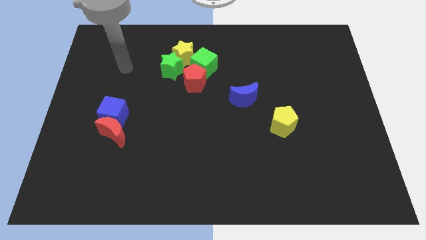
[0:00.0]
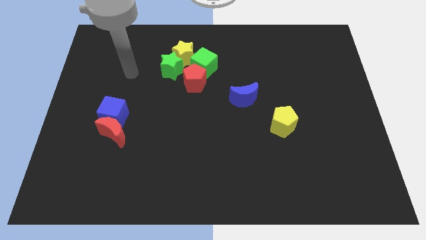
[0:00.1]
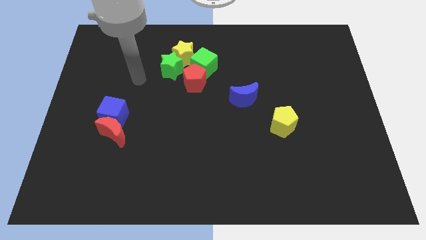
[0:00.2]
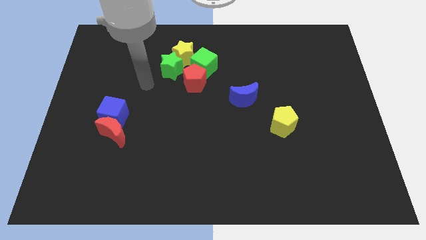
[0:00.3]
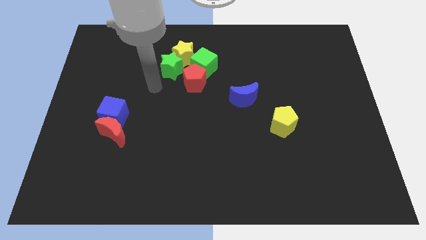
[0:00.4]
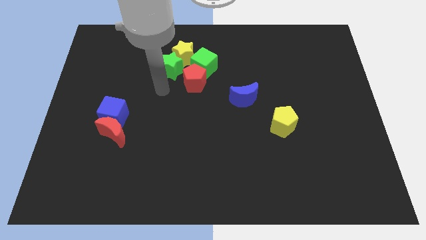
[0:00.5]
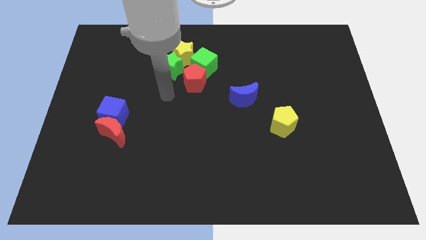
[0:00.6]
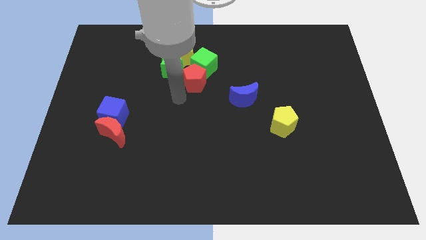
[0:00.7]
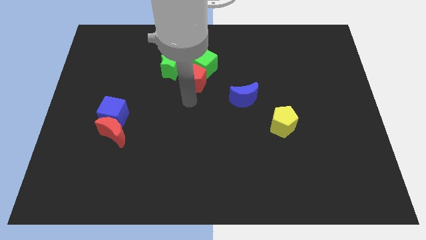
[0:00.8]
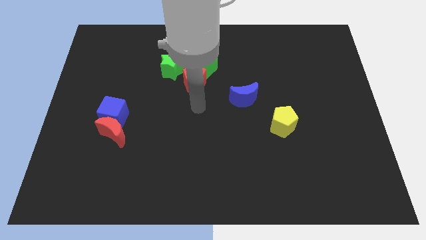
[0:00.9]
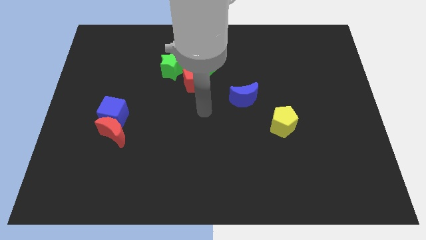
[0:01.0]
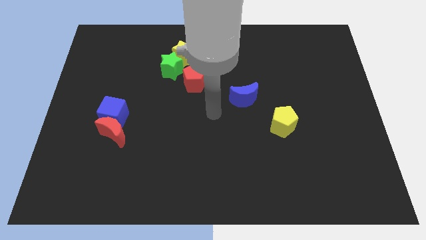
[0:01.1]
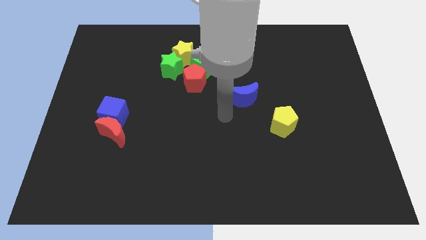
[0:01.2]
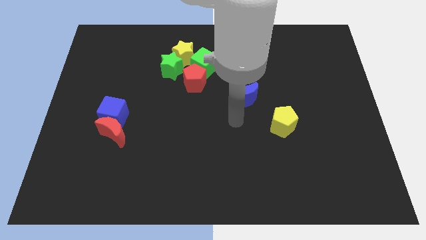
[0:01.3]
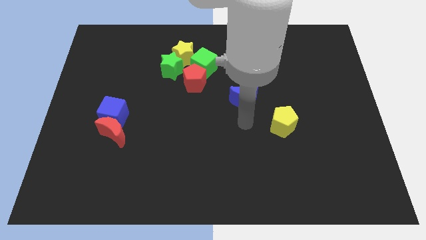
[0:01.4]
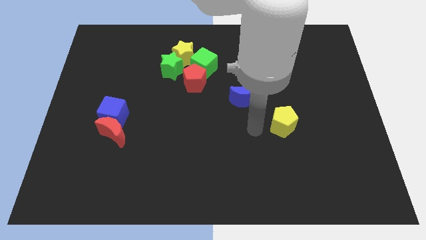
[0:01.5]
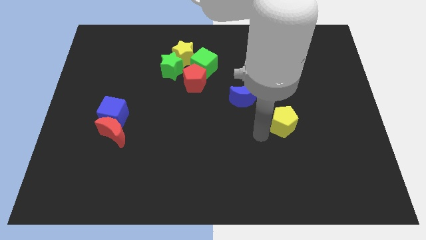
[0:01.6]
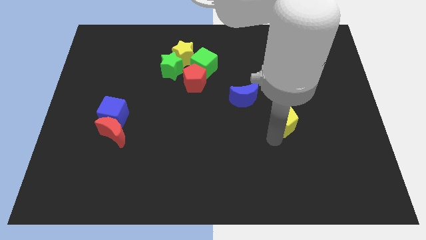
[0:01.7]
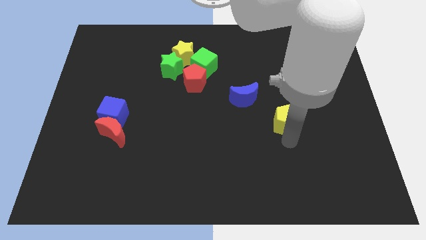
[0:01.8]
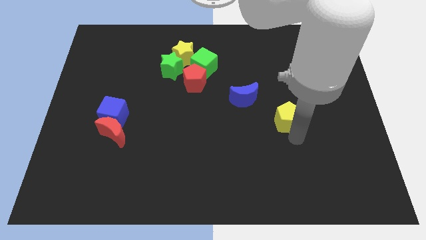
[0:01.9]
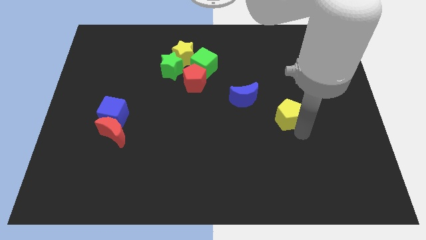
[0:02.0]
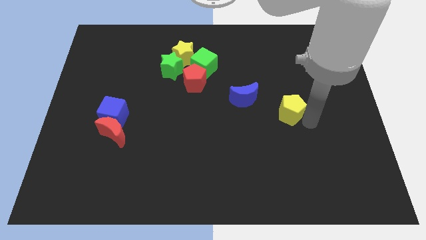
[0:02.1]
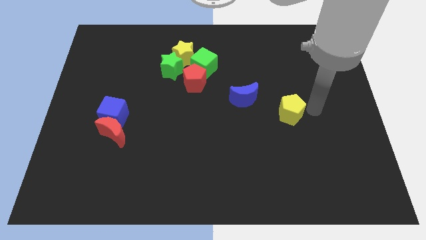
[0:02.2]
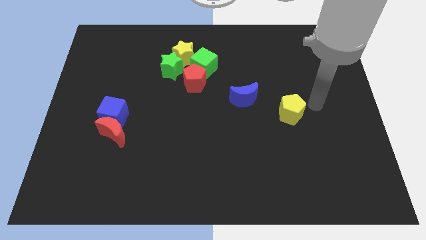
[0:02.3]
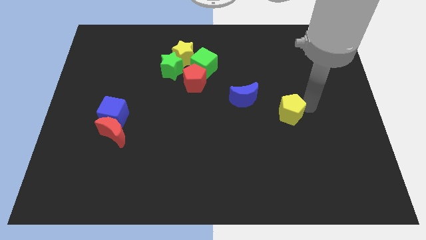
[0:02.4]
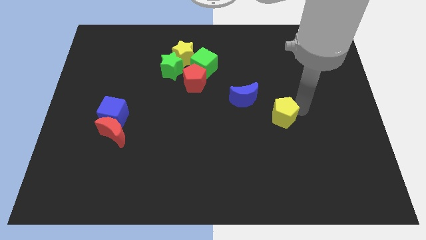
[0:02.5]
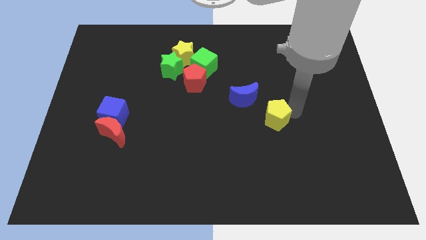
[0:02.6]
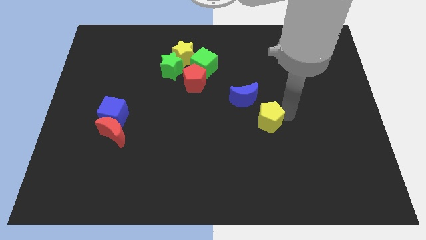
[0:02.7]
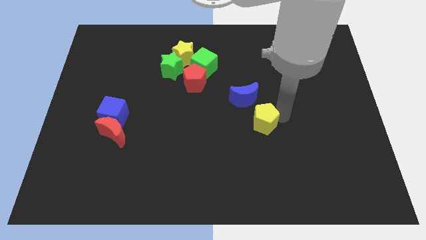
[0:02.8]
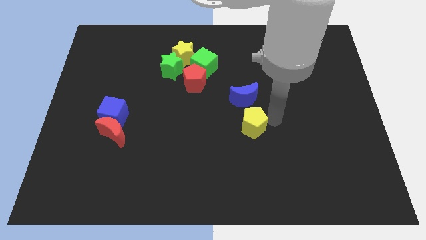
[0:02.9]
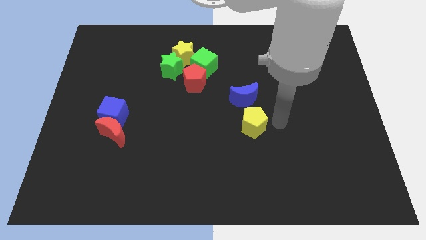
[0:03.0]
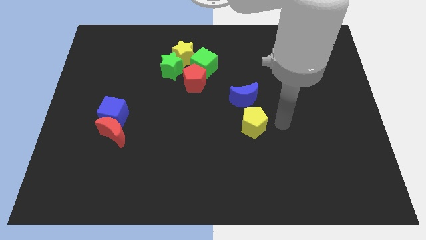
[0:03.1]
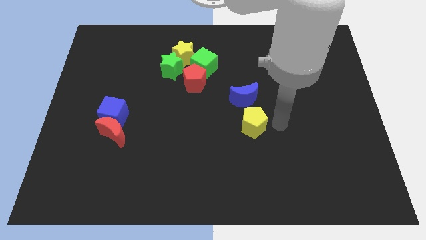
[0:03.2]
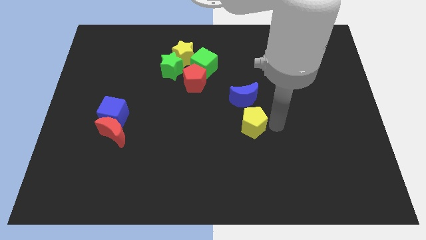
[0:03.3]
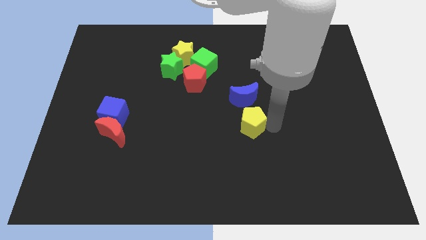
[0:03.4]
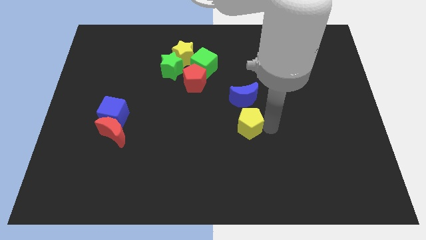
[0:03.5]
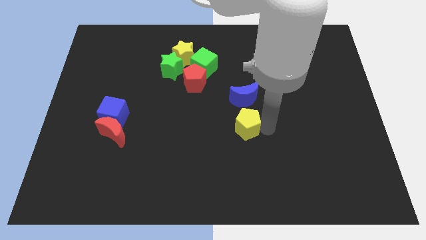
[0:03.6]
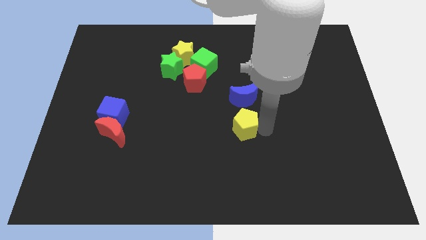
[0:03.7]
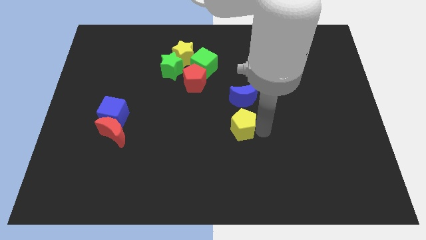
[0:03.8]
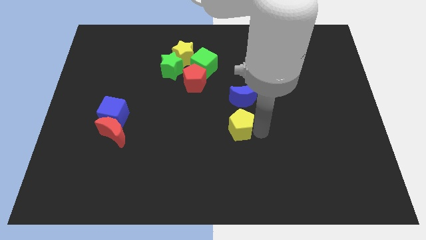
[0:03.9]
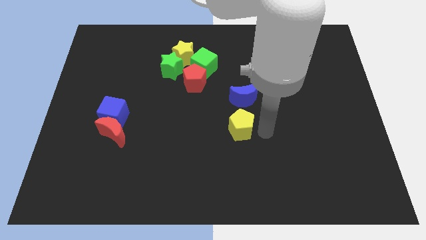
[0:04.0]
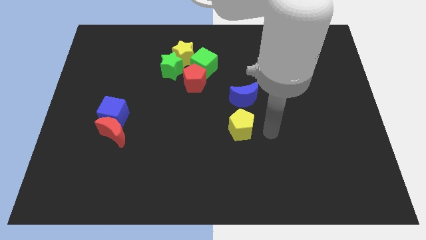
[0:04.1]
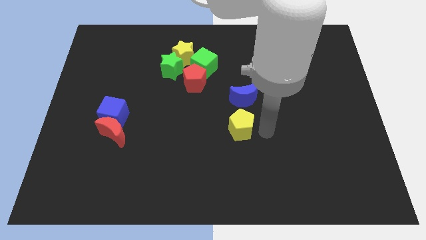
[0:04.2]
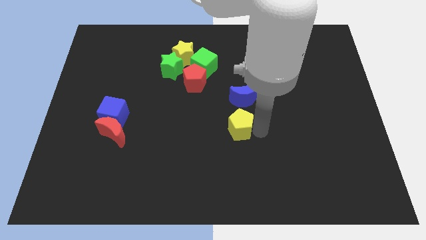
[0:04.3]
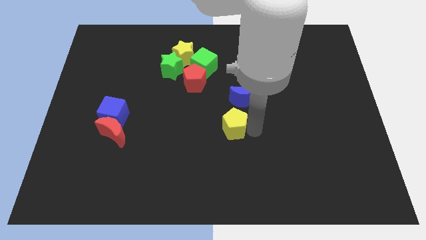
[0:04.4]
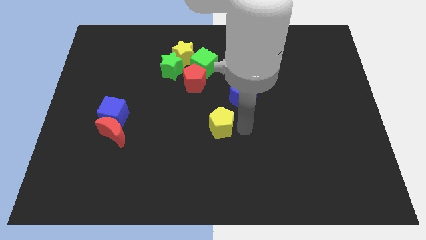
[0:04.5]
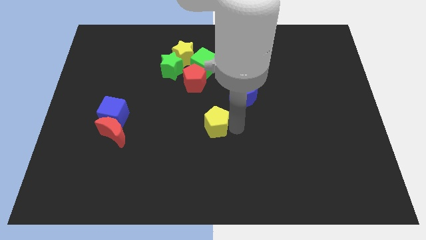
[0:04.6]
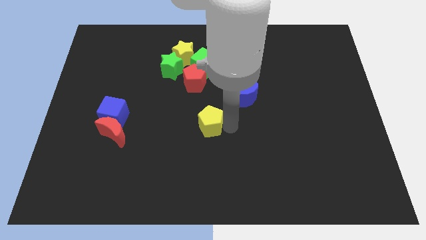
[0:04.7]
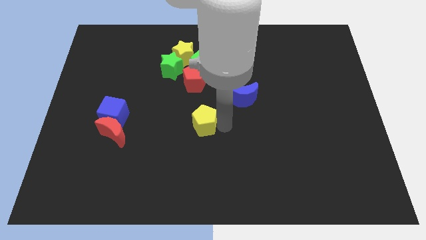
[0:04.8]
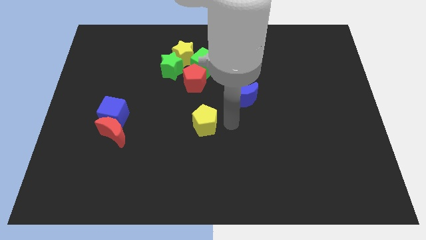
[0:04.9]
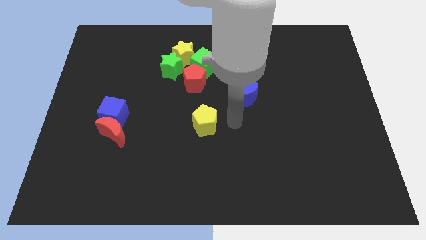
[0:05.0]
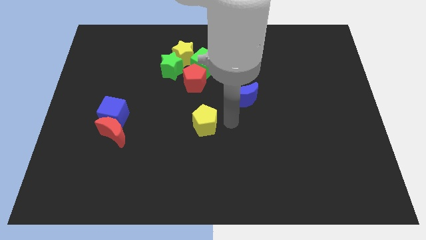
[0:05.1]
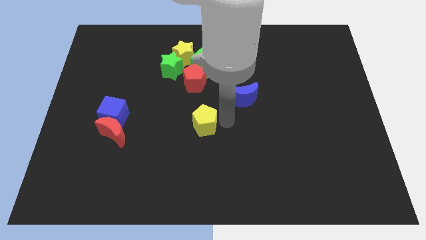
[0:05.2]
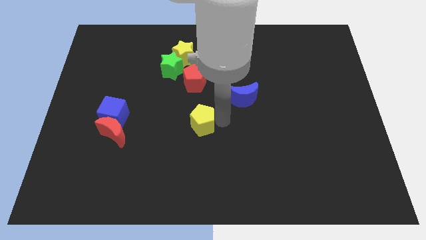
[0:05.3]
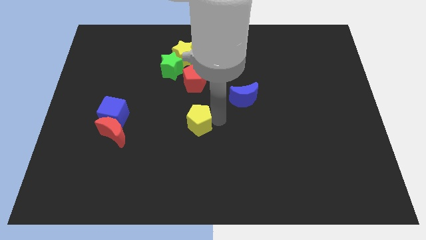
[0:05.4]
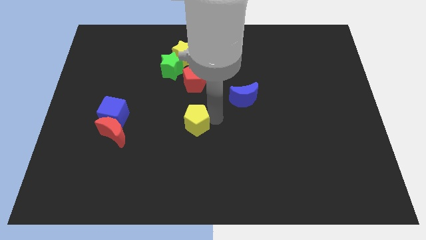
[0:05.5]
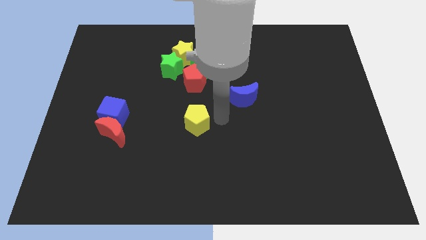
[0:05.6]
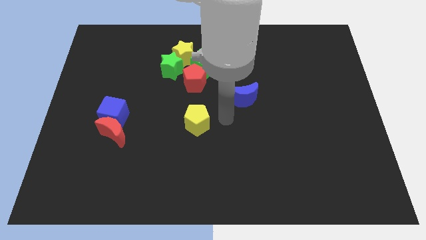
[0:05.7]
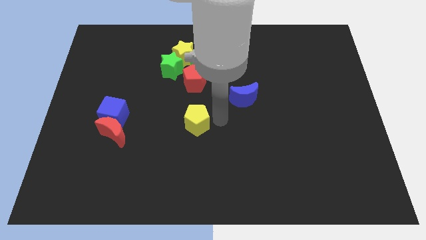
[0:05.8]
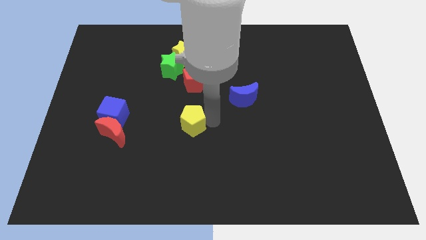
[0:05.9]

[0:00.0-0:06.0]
move the yellow pentagon to the left

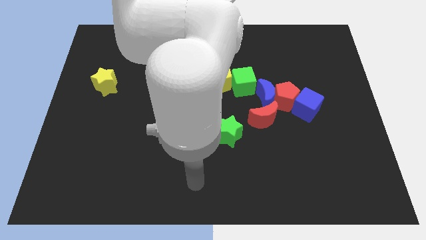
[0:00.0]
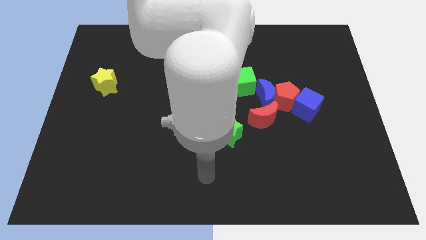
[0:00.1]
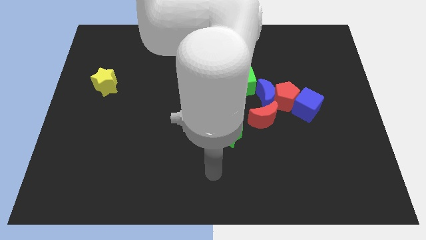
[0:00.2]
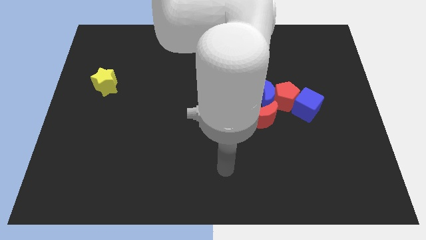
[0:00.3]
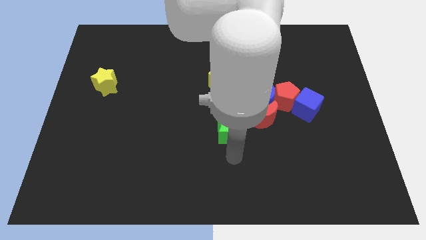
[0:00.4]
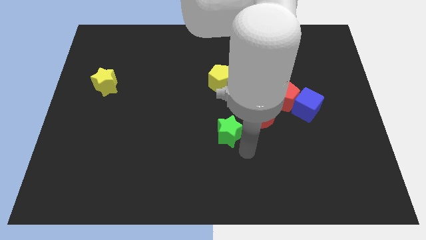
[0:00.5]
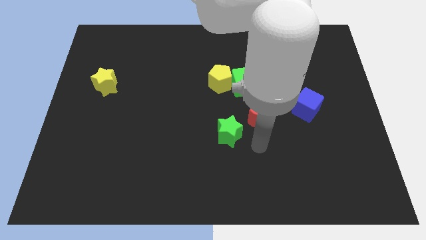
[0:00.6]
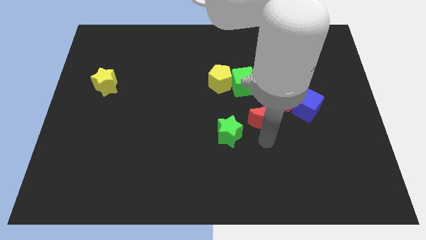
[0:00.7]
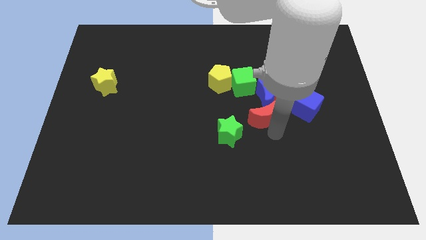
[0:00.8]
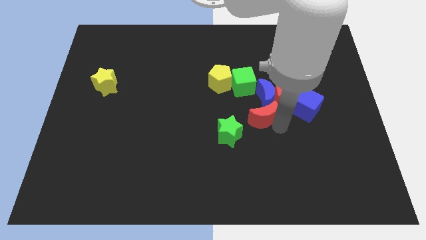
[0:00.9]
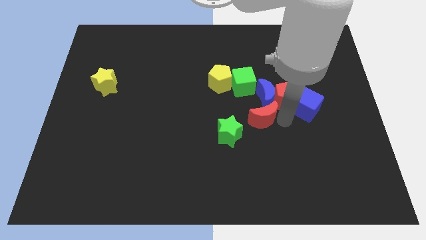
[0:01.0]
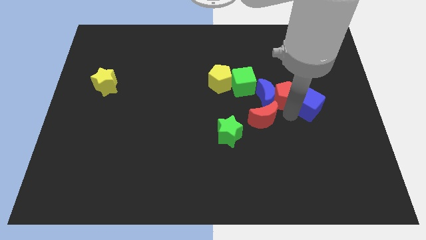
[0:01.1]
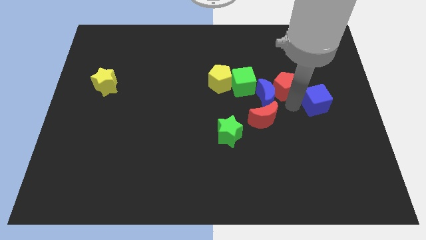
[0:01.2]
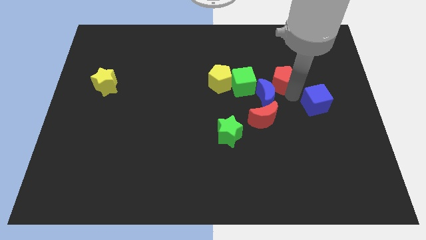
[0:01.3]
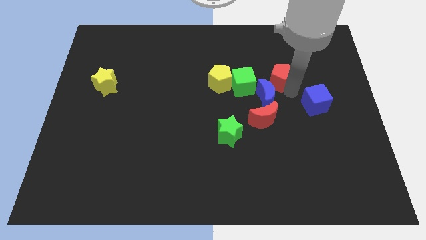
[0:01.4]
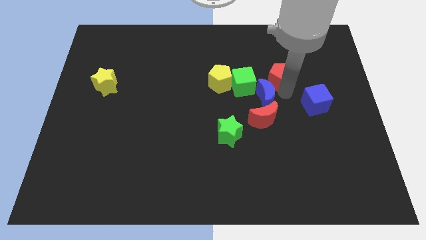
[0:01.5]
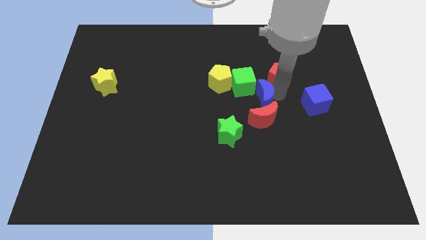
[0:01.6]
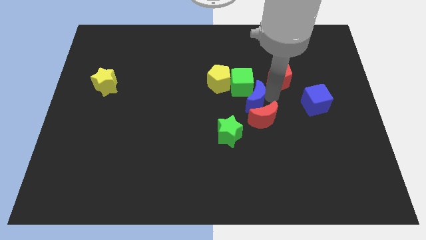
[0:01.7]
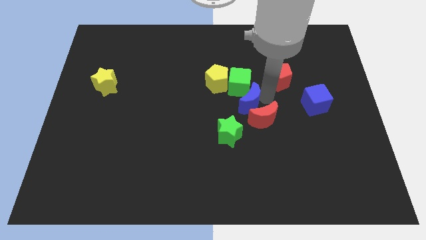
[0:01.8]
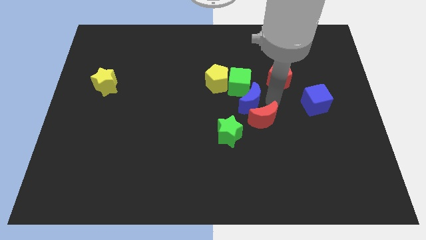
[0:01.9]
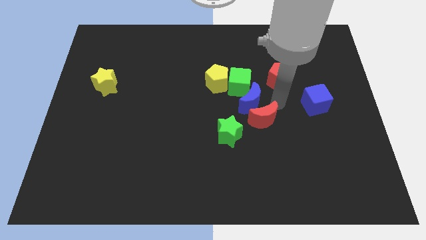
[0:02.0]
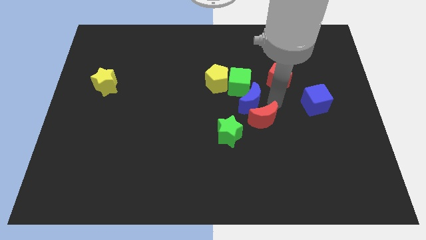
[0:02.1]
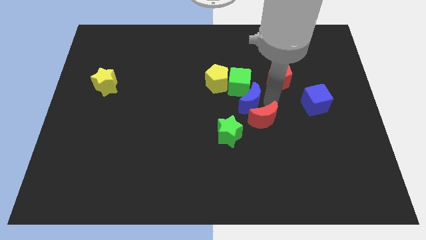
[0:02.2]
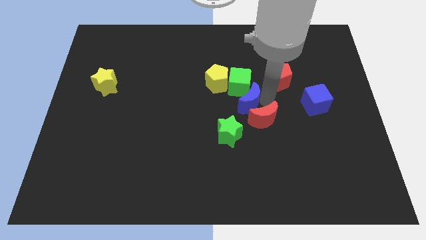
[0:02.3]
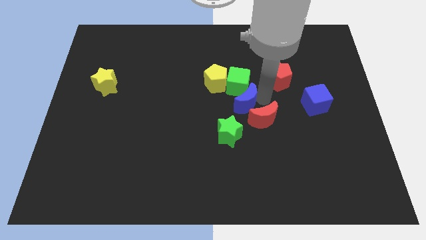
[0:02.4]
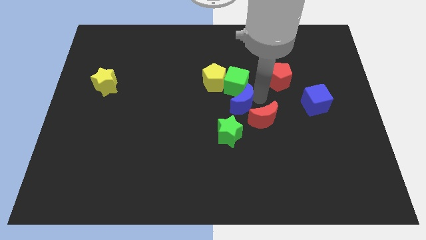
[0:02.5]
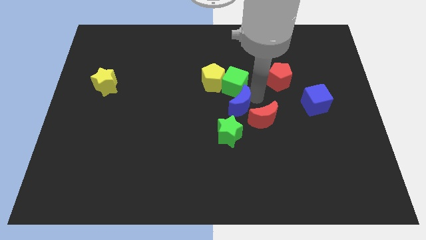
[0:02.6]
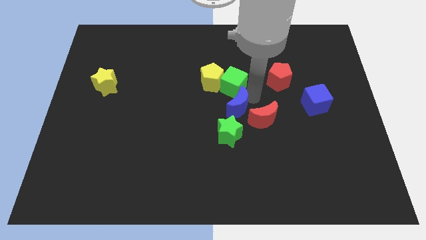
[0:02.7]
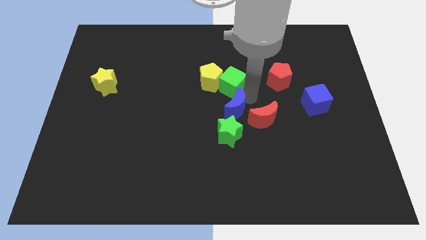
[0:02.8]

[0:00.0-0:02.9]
slide the blue moon somewhat left
